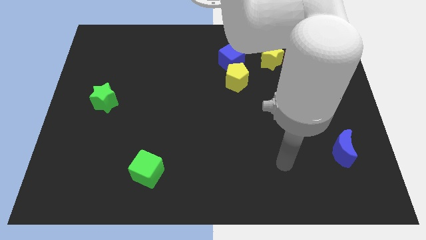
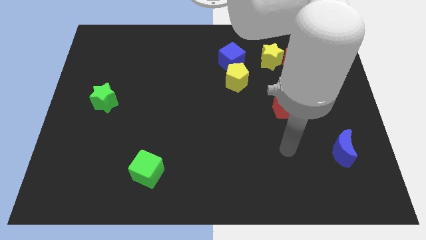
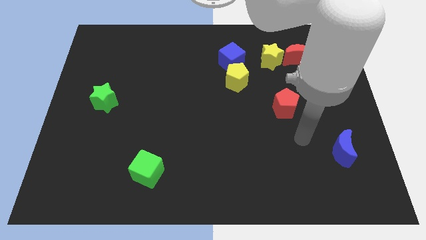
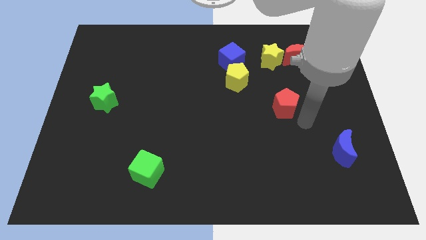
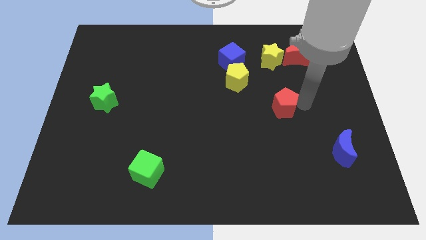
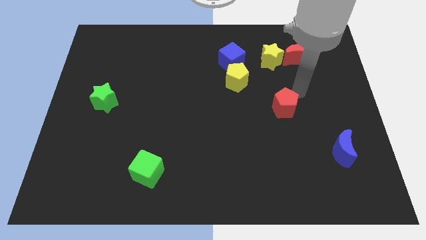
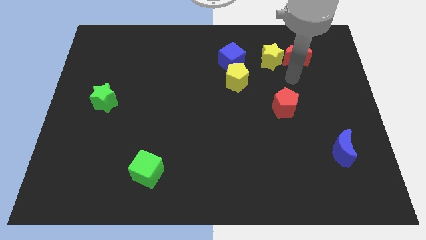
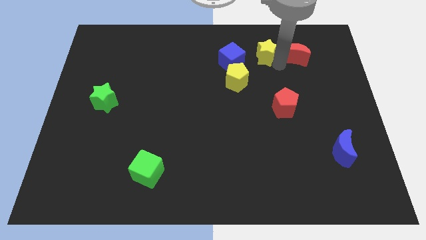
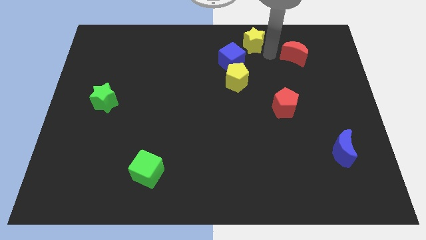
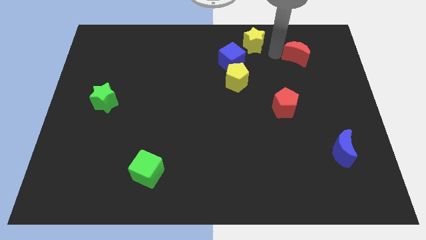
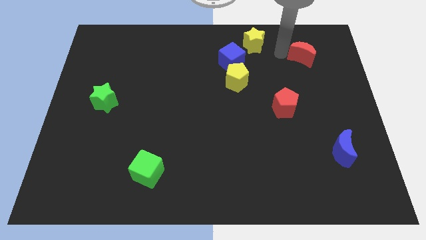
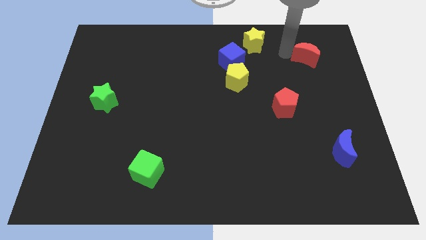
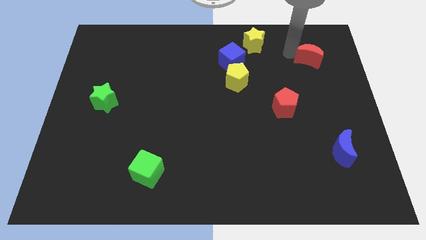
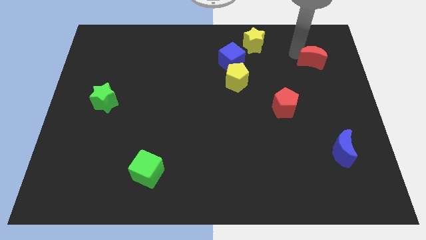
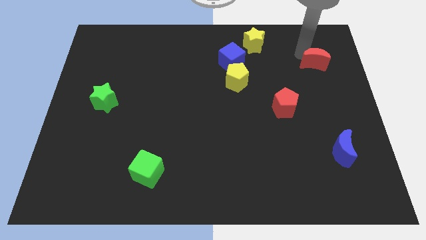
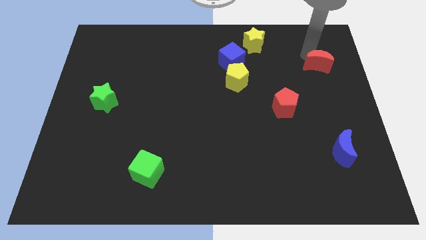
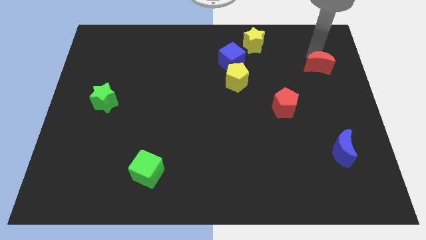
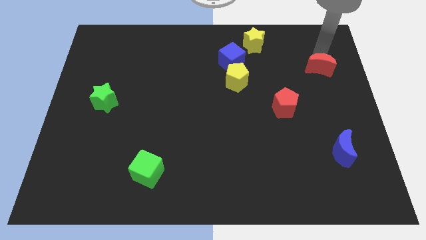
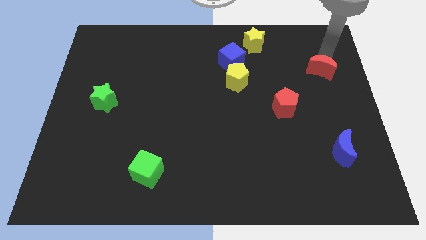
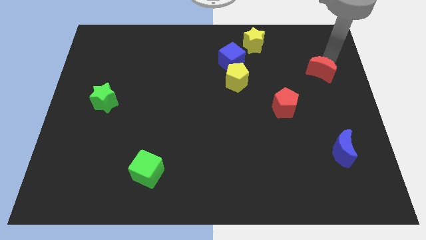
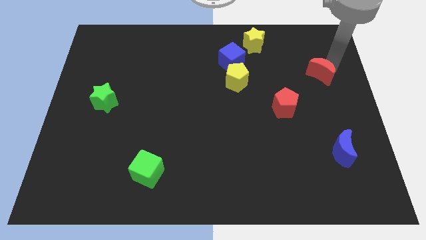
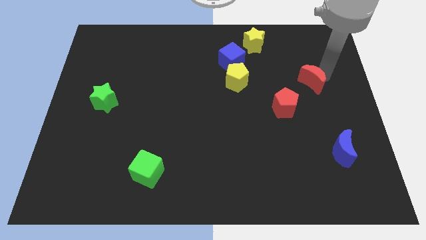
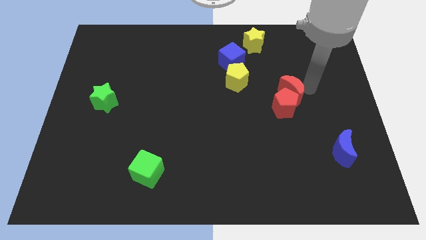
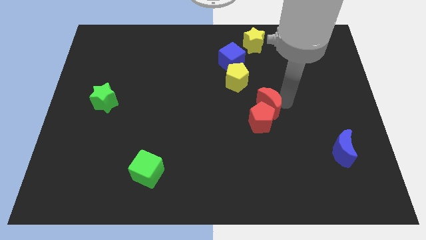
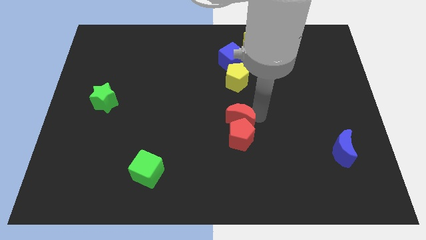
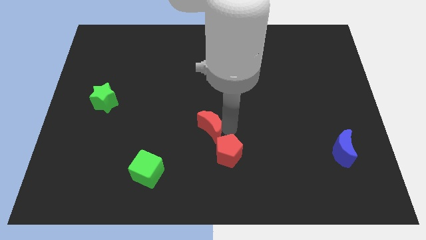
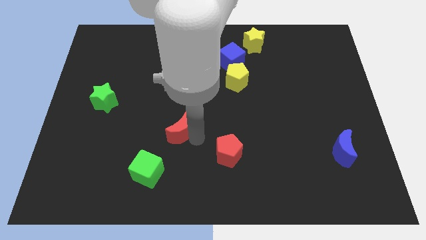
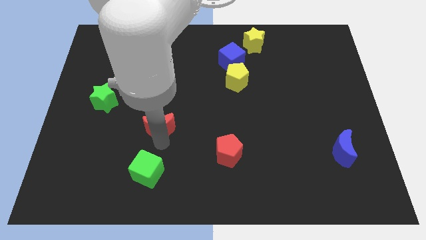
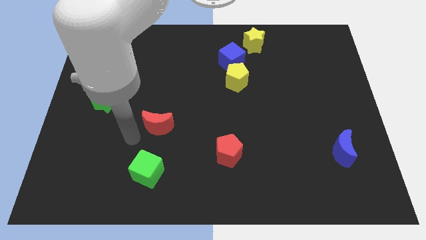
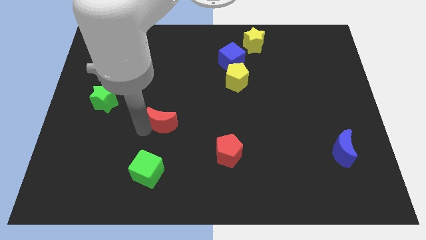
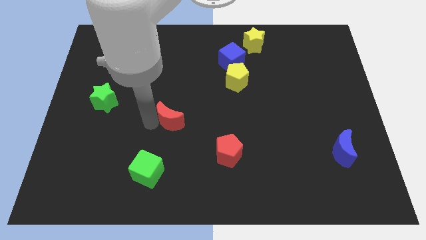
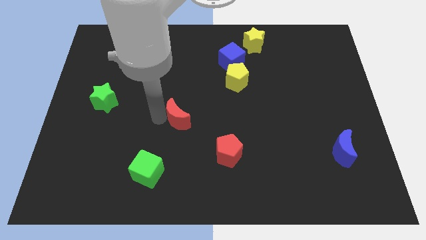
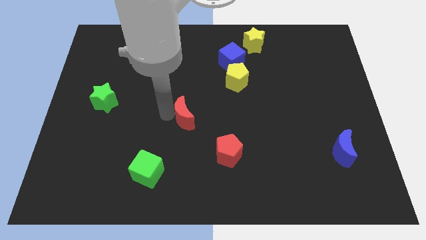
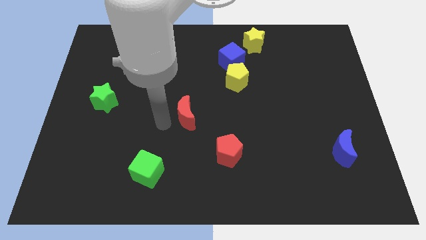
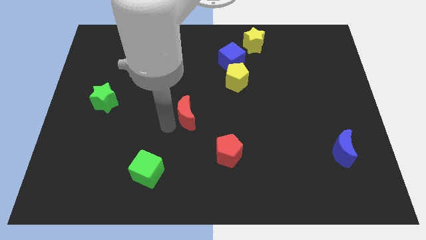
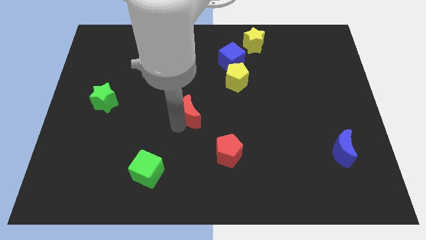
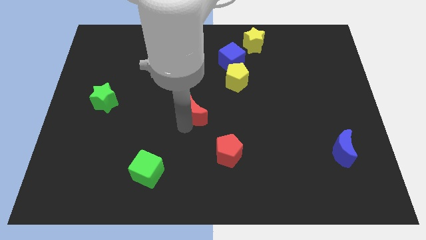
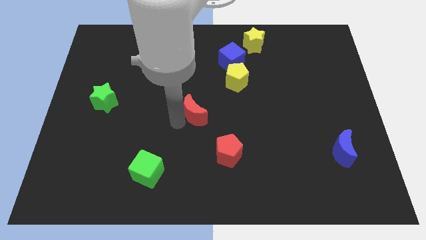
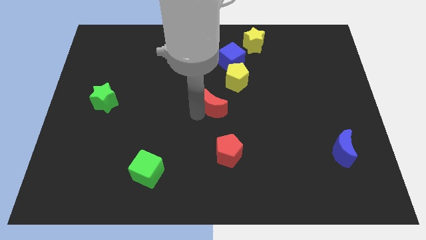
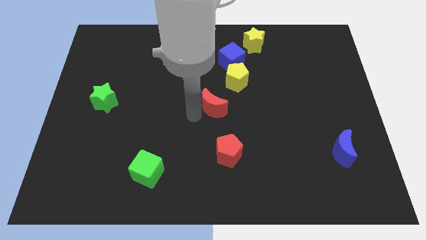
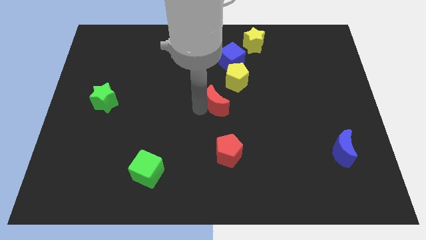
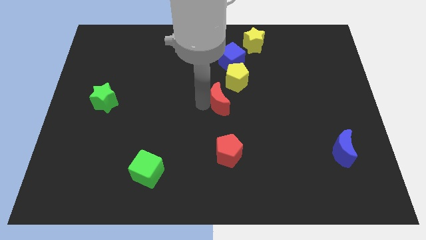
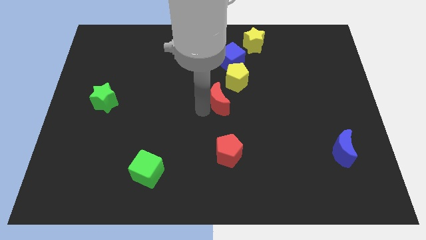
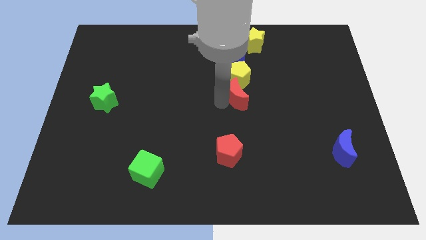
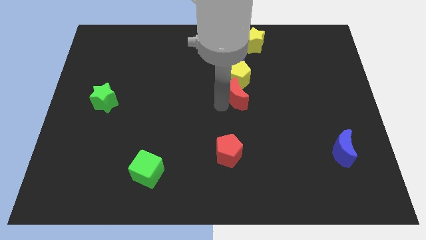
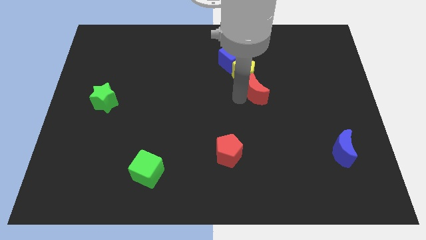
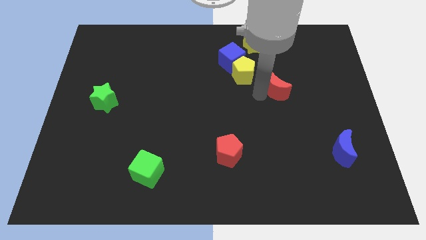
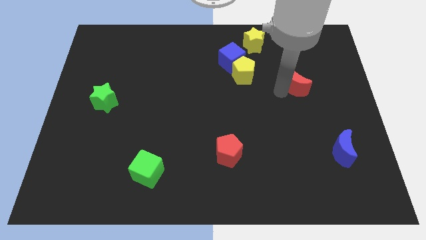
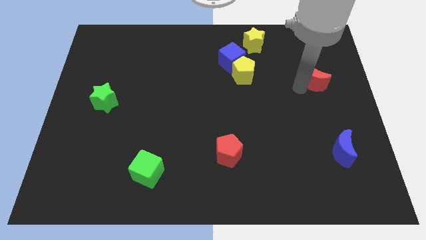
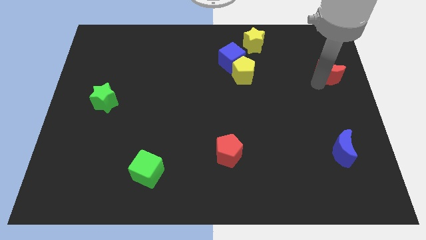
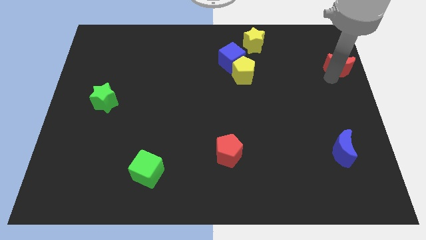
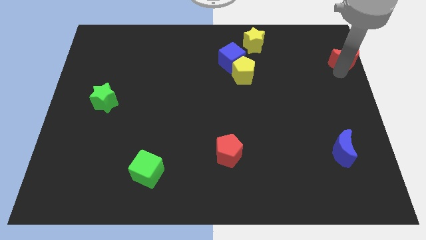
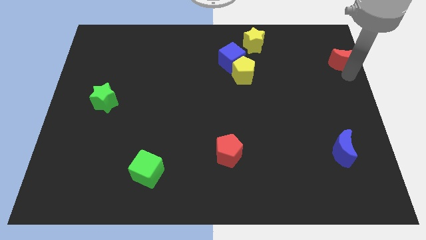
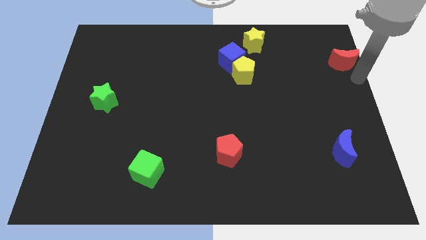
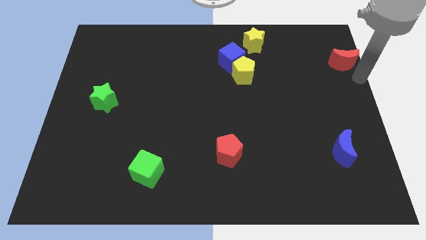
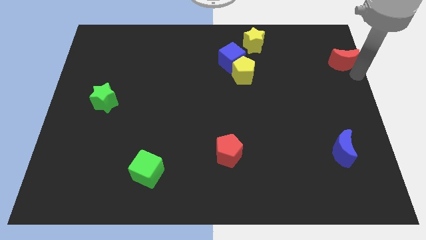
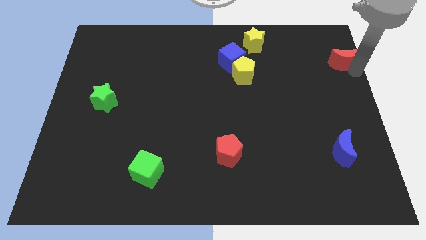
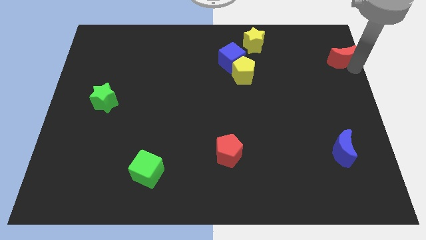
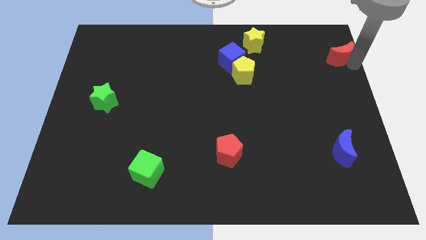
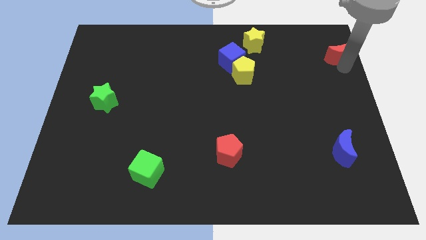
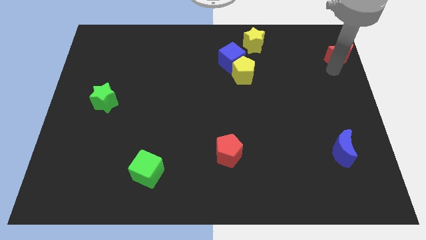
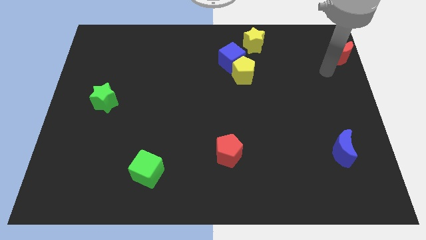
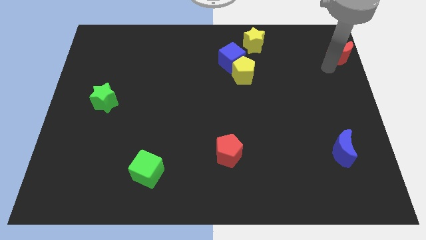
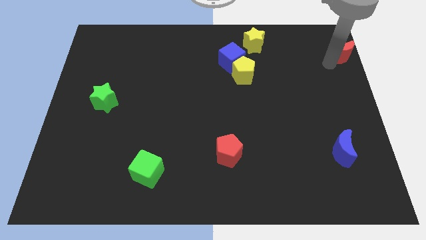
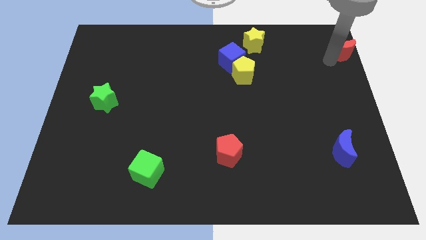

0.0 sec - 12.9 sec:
push the red moon to the top right of the board
